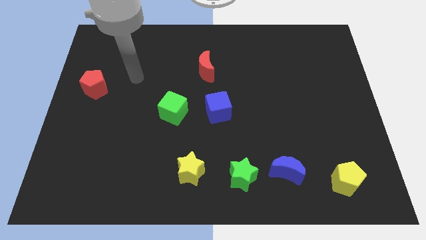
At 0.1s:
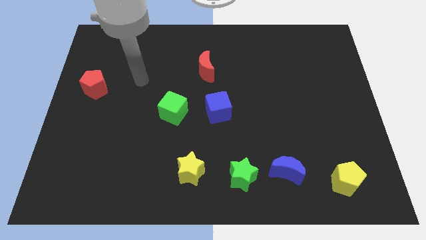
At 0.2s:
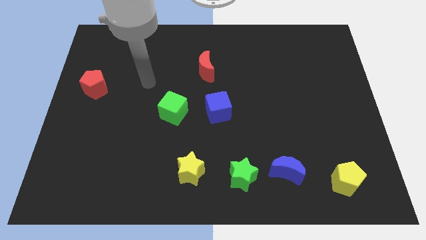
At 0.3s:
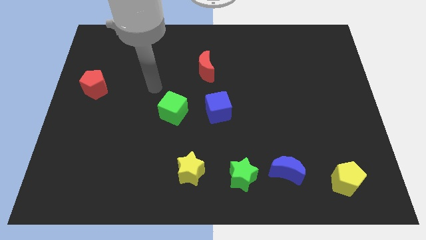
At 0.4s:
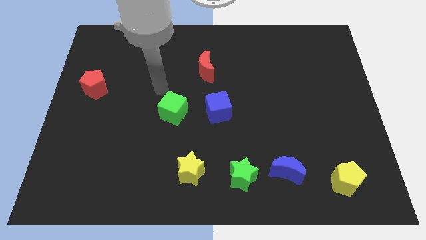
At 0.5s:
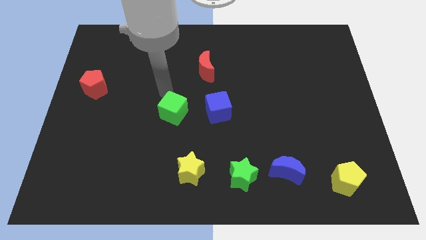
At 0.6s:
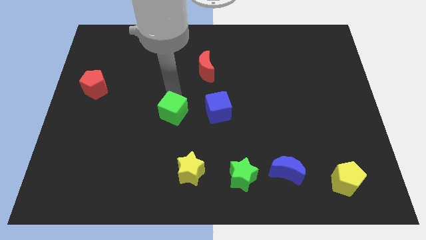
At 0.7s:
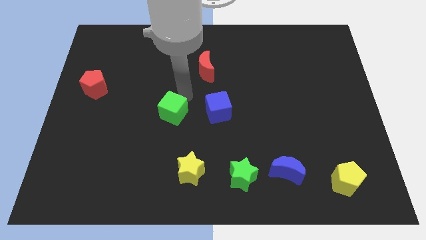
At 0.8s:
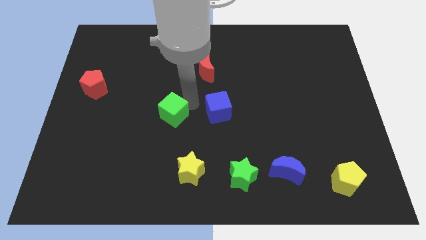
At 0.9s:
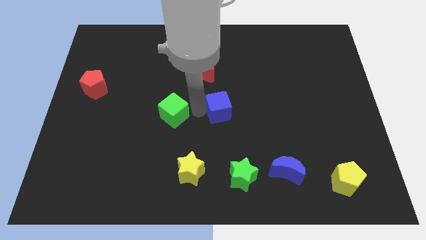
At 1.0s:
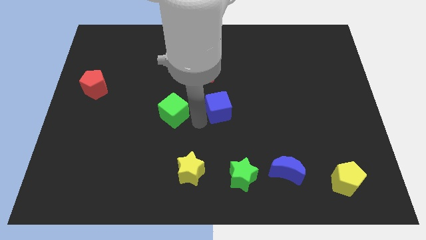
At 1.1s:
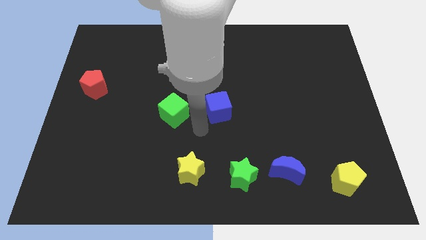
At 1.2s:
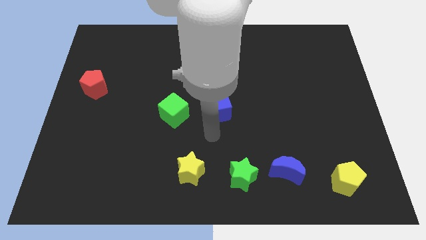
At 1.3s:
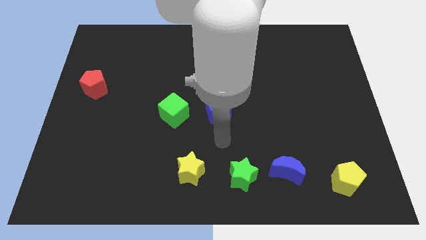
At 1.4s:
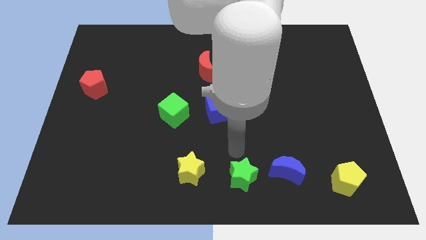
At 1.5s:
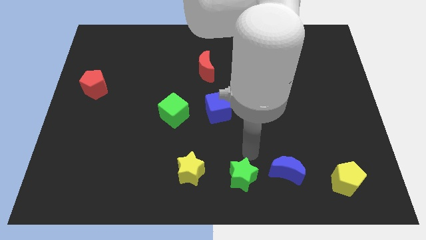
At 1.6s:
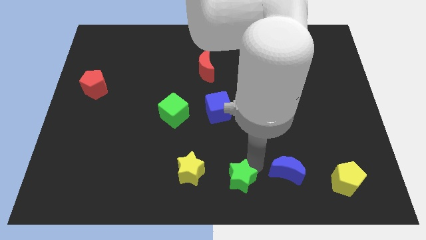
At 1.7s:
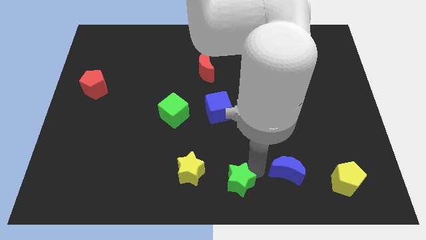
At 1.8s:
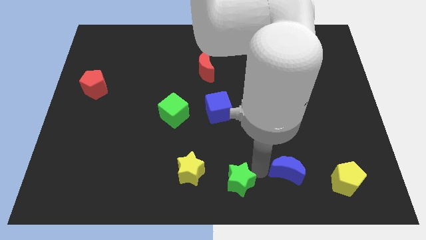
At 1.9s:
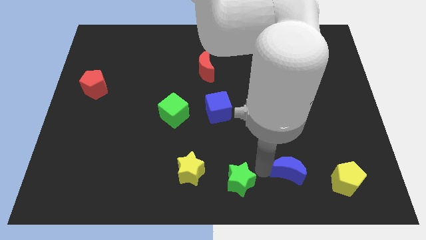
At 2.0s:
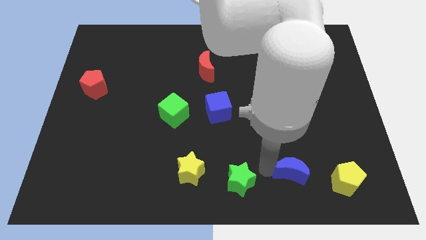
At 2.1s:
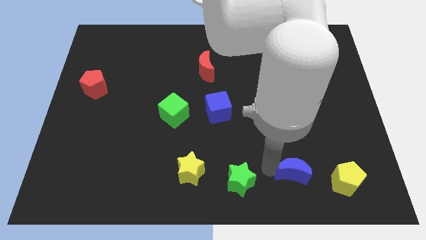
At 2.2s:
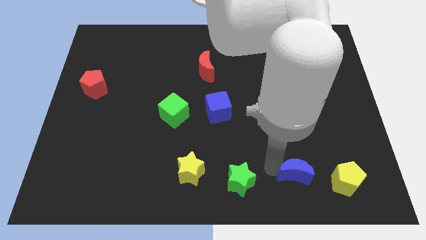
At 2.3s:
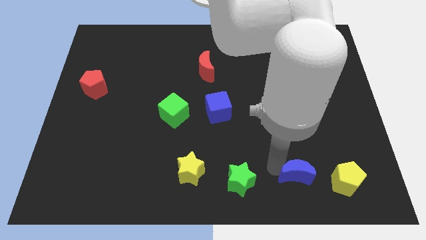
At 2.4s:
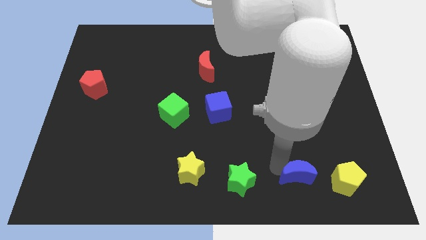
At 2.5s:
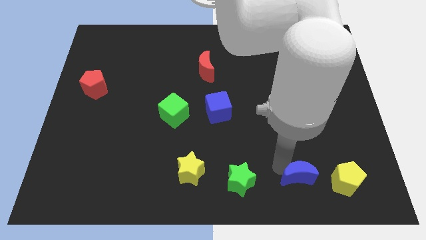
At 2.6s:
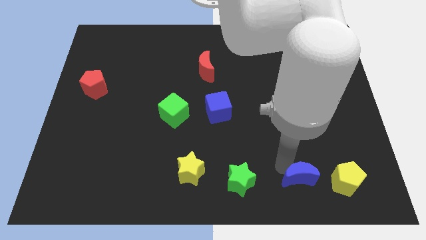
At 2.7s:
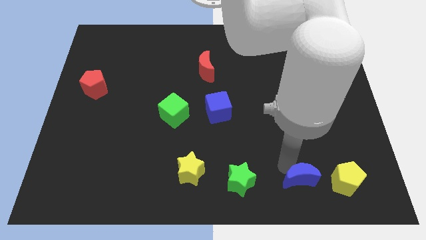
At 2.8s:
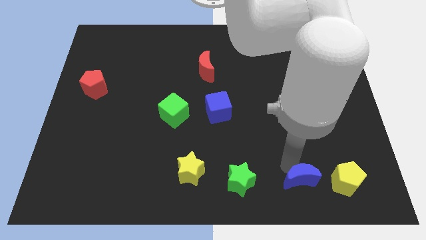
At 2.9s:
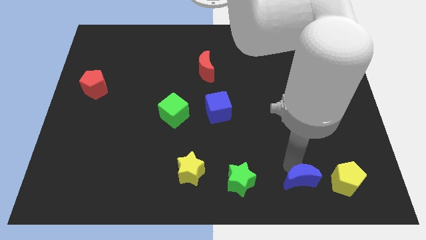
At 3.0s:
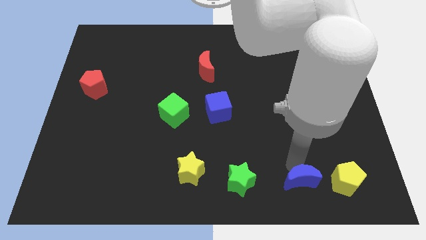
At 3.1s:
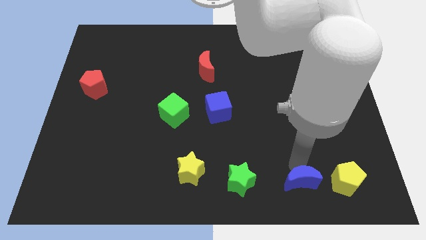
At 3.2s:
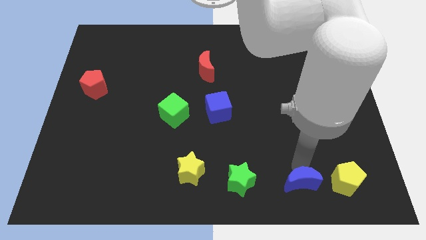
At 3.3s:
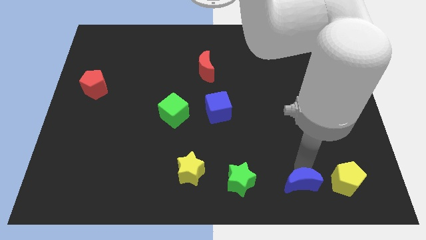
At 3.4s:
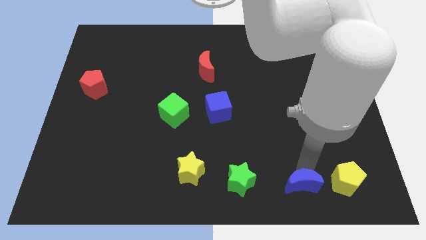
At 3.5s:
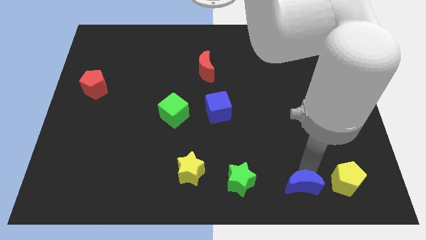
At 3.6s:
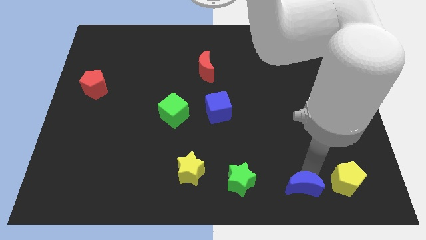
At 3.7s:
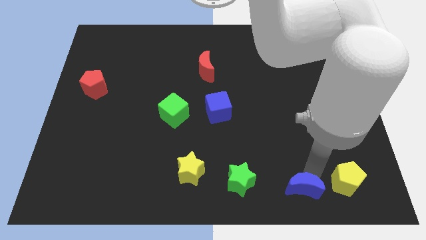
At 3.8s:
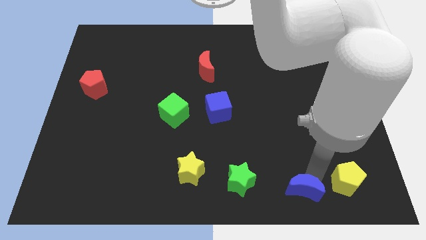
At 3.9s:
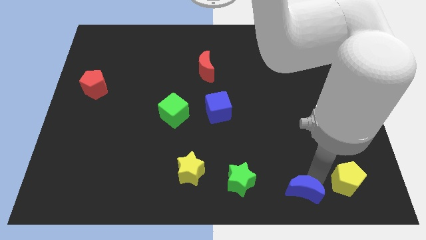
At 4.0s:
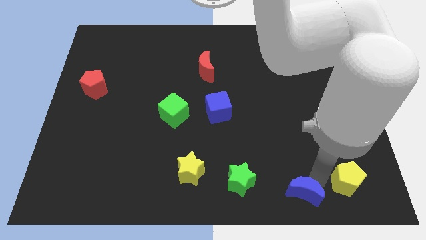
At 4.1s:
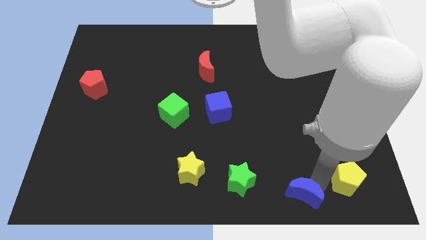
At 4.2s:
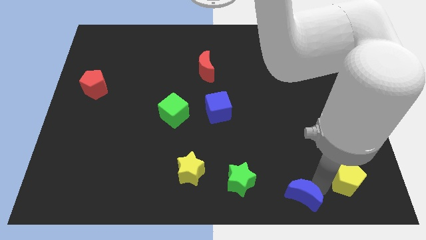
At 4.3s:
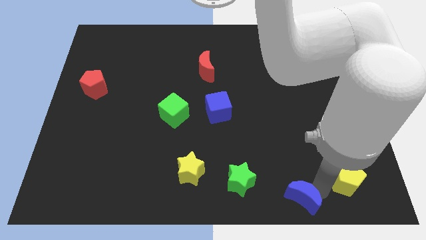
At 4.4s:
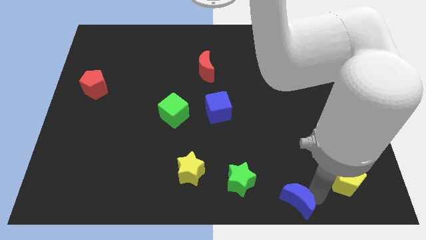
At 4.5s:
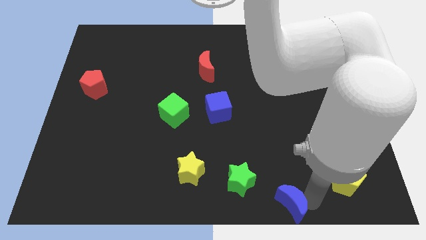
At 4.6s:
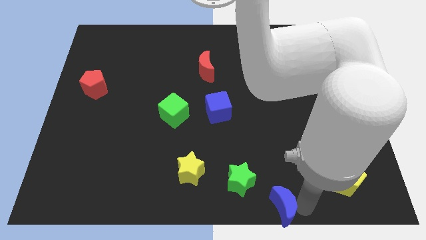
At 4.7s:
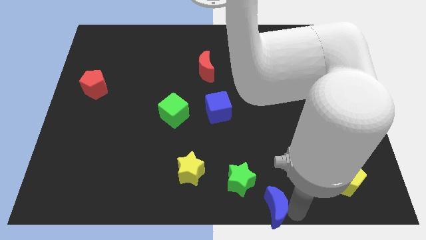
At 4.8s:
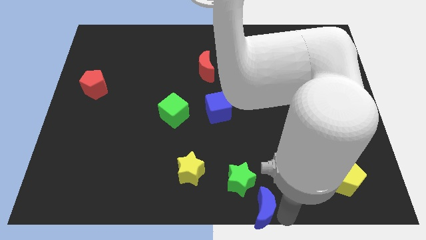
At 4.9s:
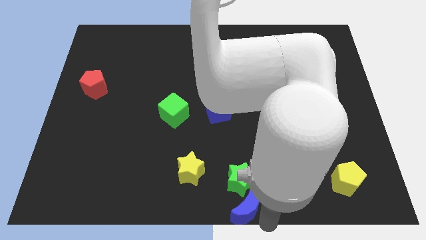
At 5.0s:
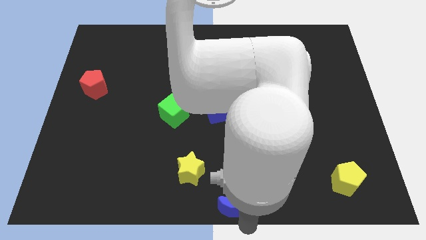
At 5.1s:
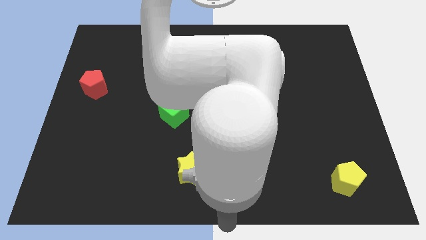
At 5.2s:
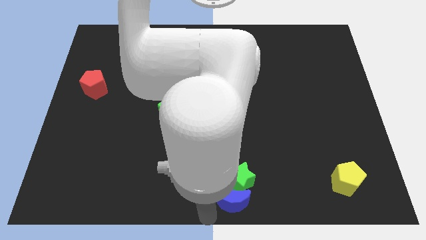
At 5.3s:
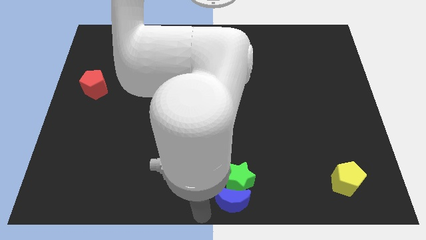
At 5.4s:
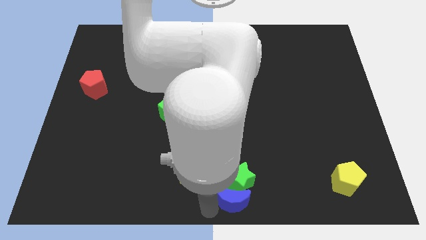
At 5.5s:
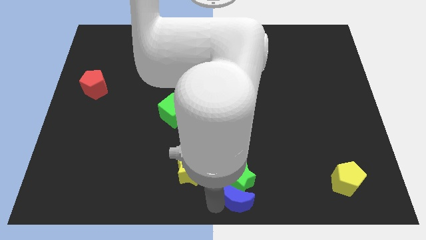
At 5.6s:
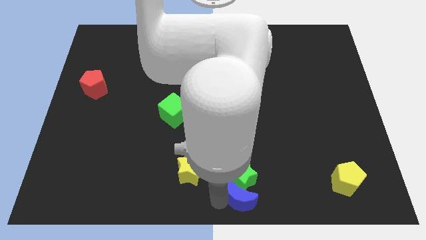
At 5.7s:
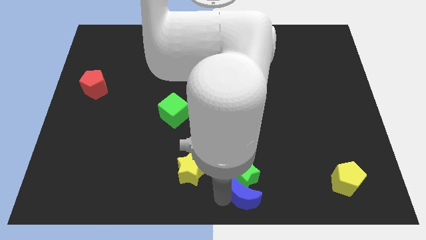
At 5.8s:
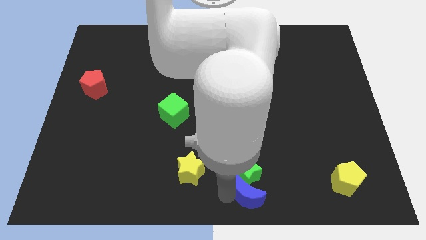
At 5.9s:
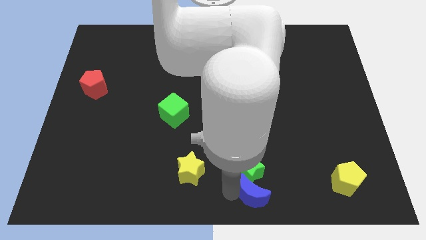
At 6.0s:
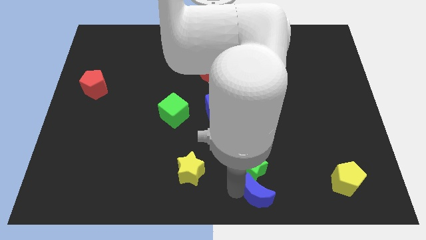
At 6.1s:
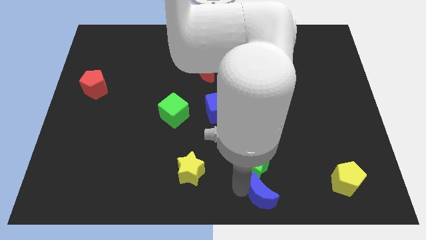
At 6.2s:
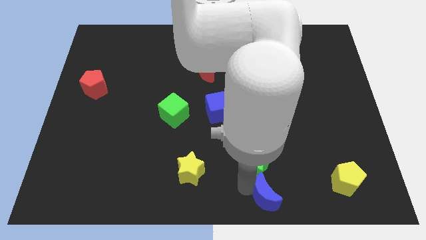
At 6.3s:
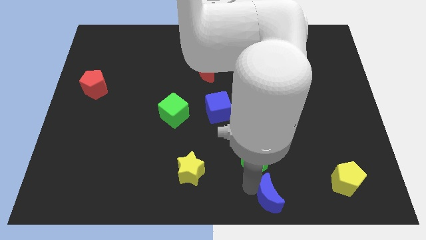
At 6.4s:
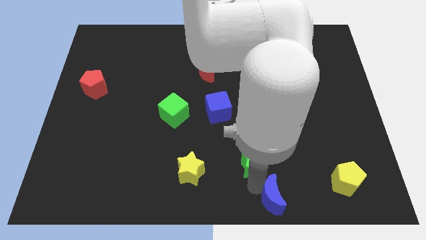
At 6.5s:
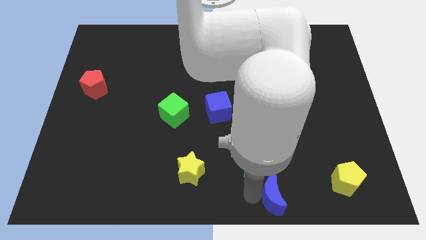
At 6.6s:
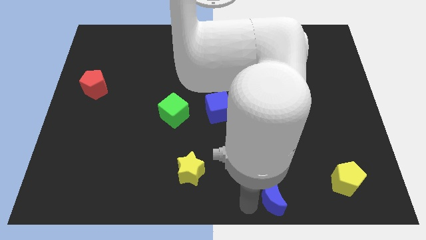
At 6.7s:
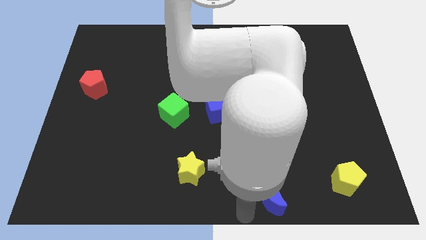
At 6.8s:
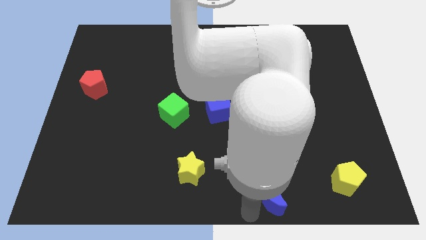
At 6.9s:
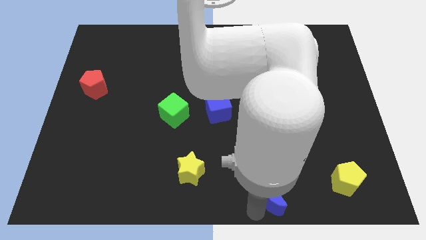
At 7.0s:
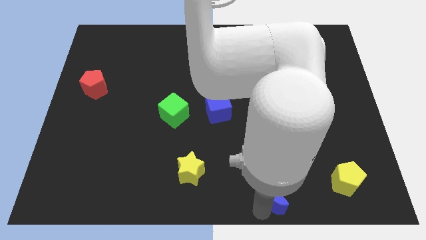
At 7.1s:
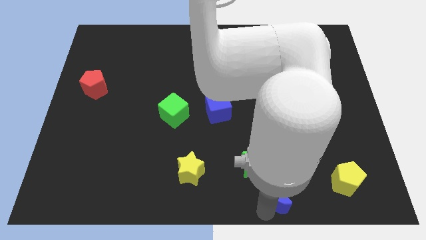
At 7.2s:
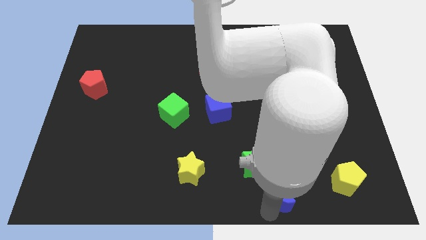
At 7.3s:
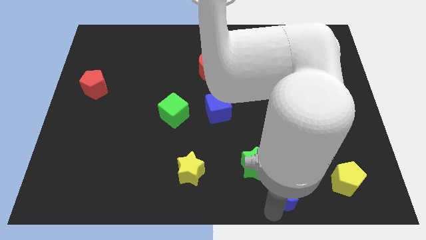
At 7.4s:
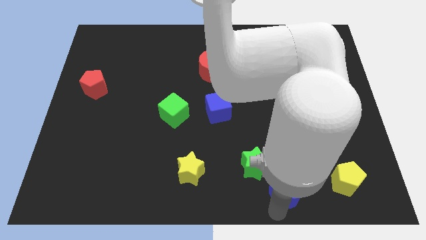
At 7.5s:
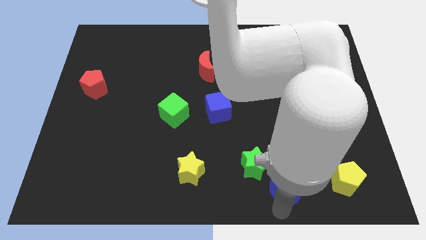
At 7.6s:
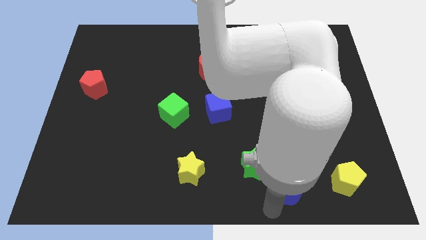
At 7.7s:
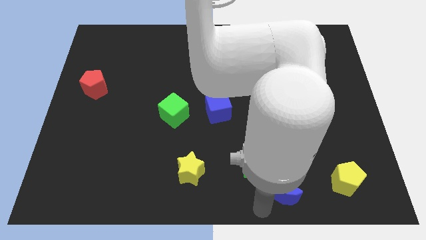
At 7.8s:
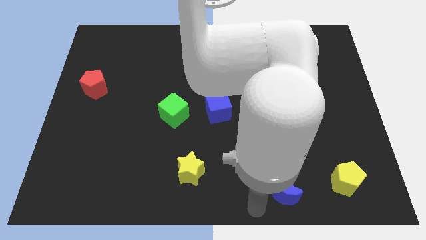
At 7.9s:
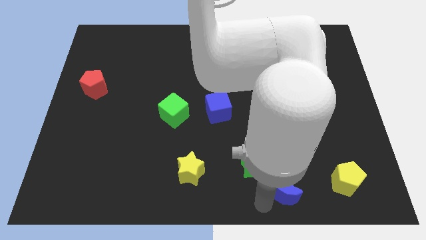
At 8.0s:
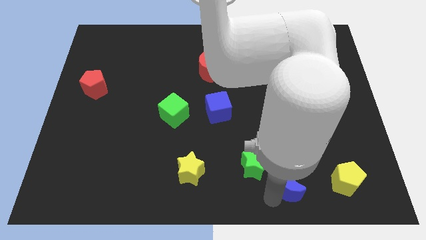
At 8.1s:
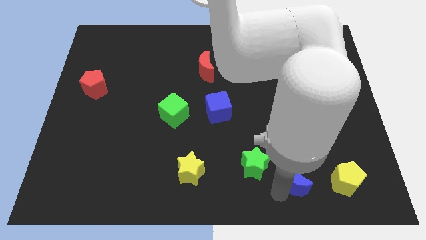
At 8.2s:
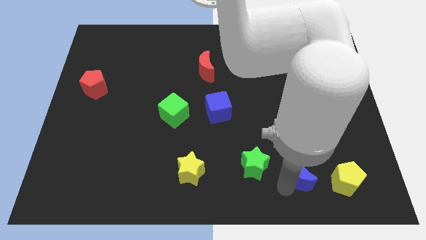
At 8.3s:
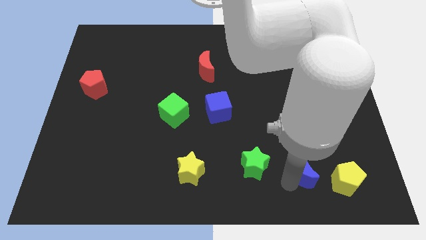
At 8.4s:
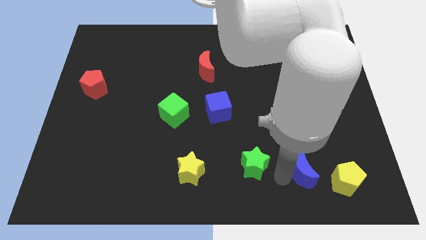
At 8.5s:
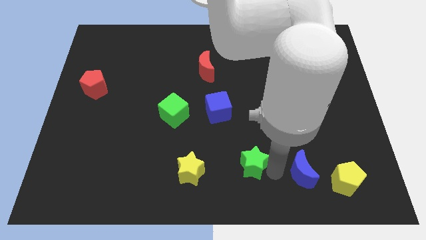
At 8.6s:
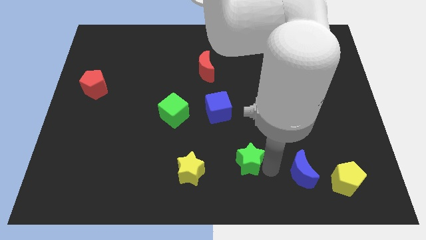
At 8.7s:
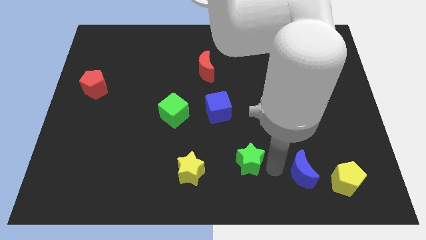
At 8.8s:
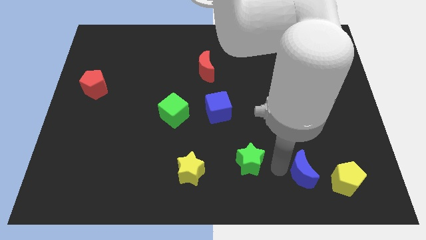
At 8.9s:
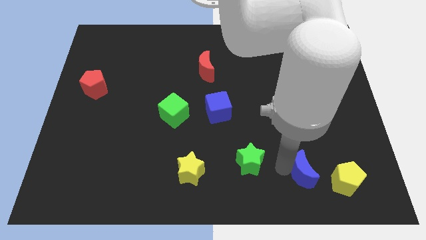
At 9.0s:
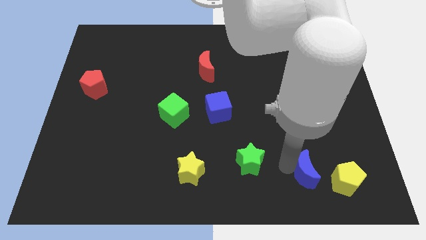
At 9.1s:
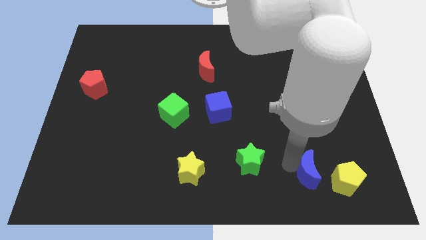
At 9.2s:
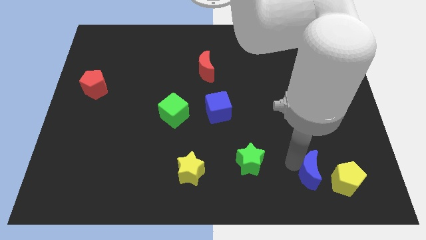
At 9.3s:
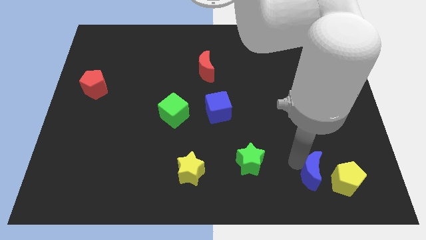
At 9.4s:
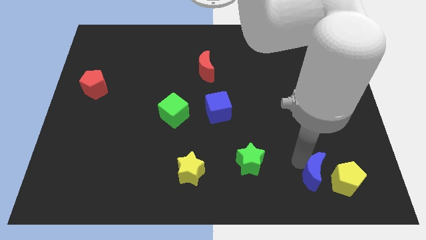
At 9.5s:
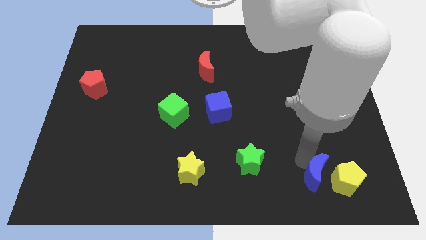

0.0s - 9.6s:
slide the blue moon towards the yellow pentagon
